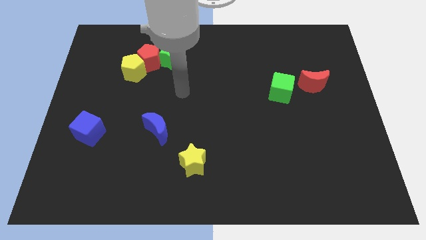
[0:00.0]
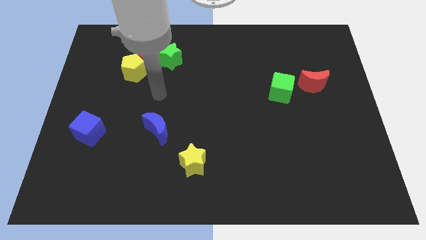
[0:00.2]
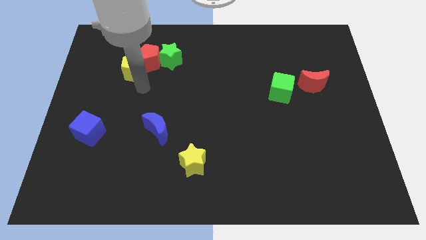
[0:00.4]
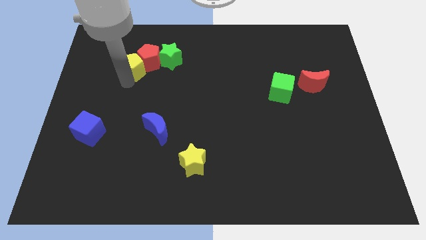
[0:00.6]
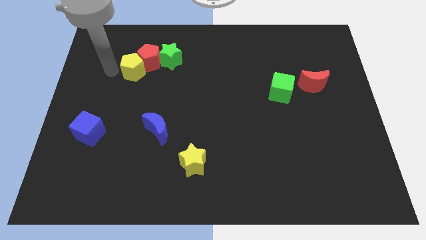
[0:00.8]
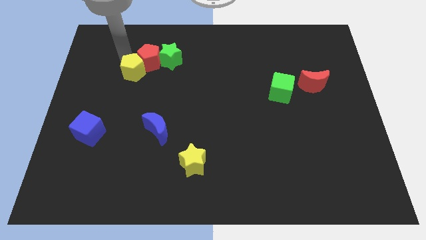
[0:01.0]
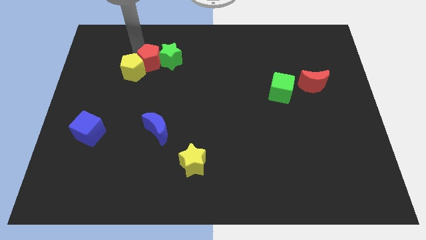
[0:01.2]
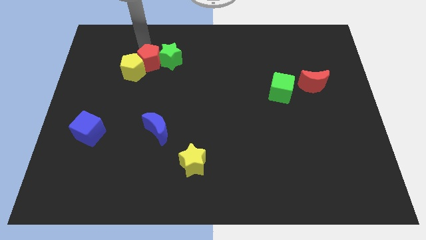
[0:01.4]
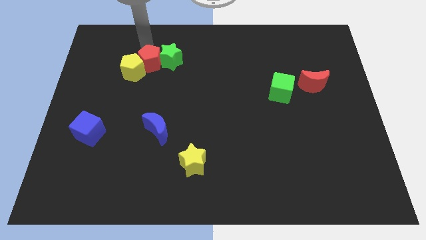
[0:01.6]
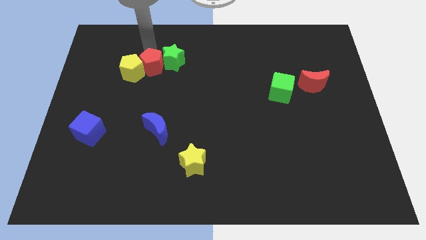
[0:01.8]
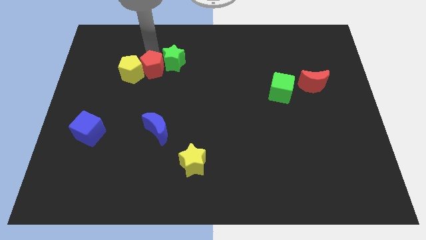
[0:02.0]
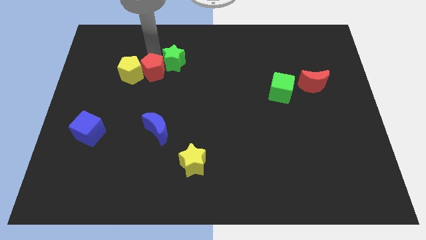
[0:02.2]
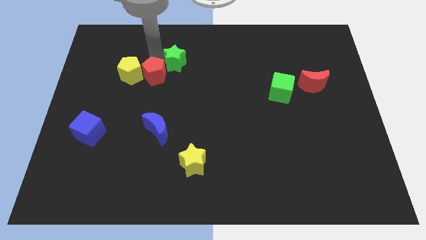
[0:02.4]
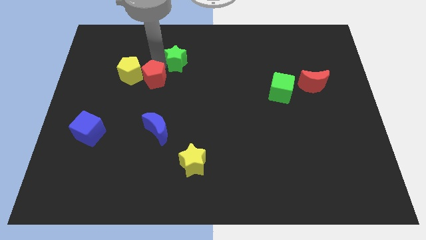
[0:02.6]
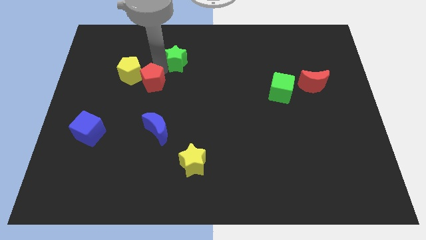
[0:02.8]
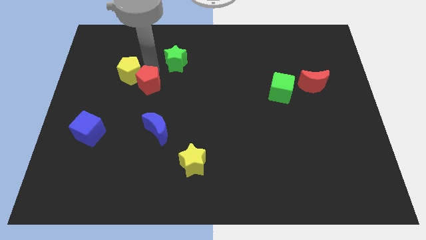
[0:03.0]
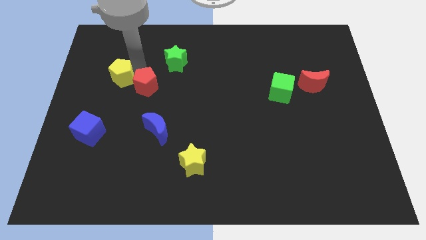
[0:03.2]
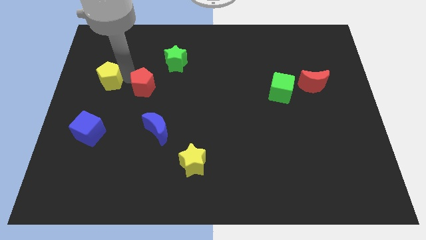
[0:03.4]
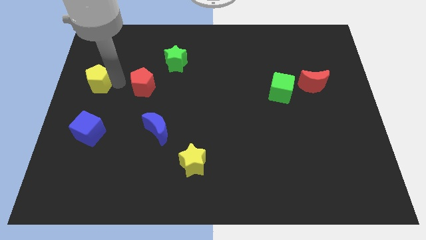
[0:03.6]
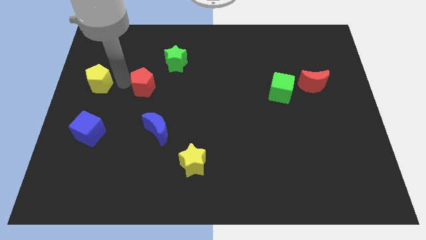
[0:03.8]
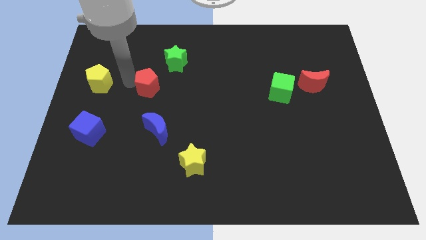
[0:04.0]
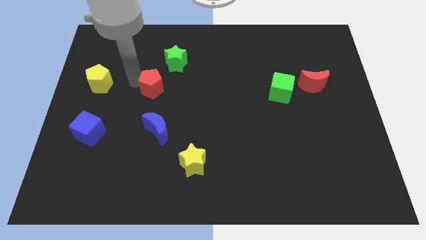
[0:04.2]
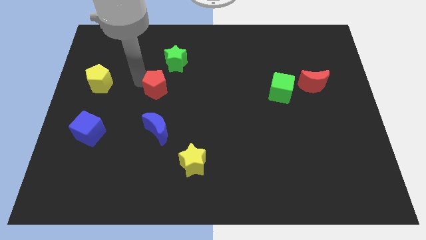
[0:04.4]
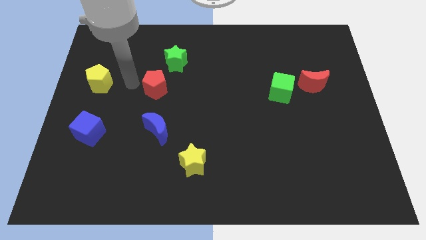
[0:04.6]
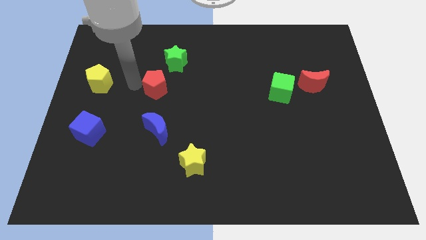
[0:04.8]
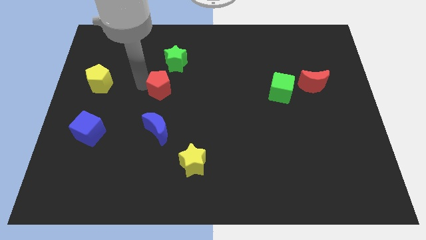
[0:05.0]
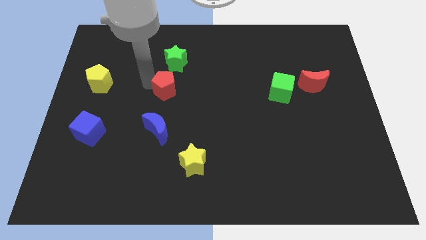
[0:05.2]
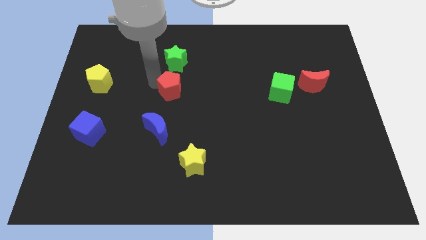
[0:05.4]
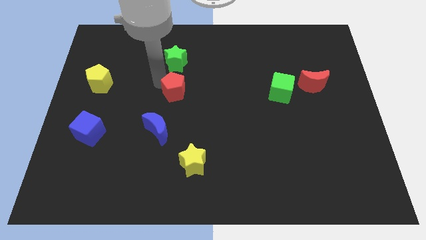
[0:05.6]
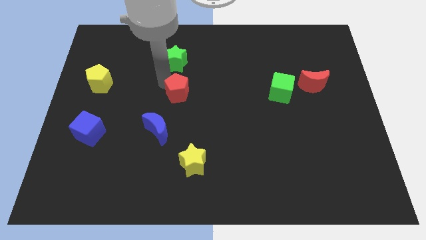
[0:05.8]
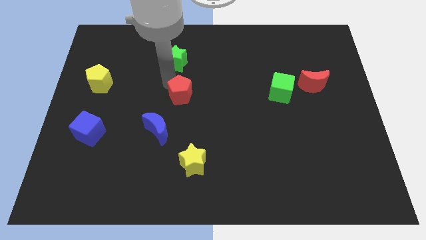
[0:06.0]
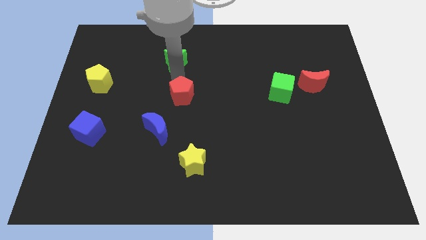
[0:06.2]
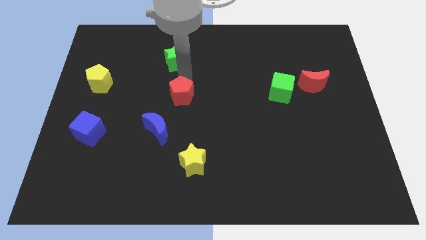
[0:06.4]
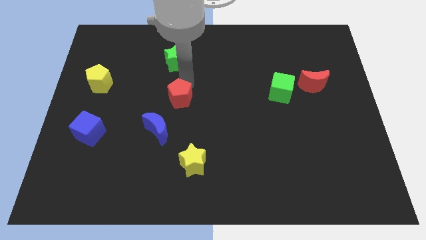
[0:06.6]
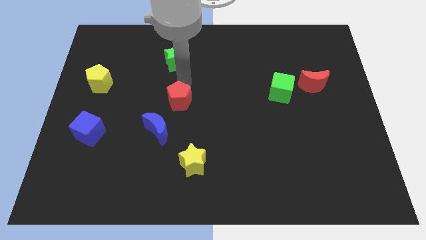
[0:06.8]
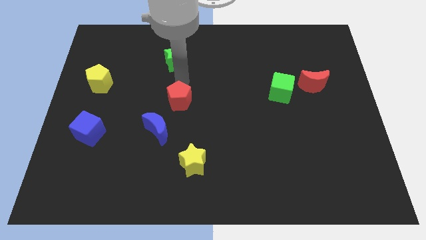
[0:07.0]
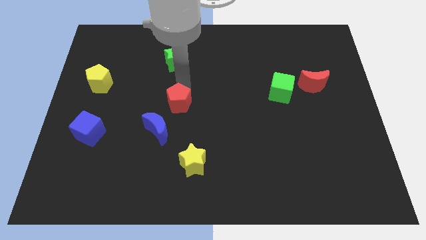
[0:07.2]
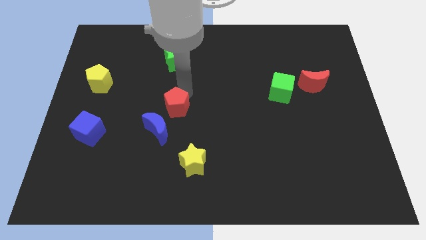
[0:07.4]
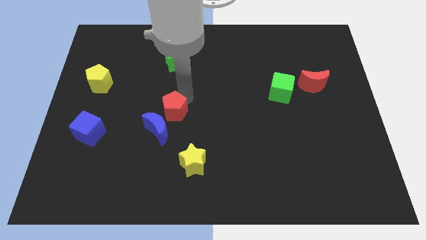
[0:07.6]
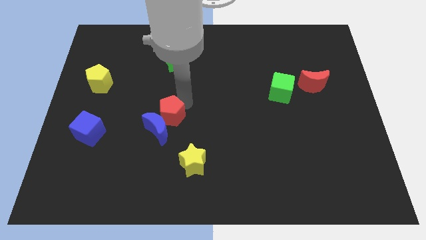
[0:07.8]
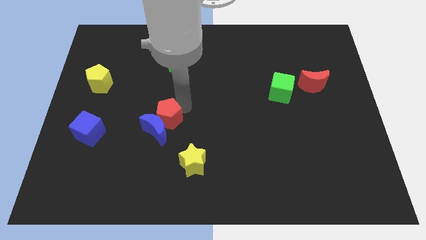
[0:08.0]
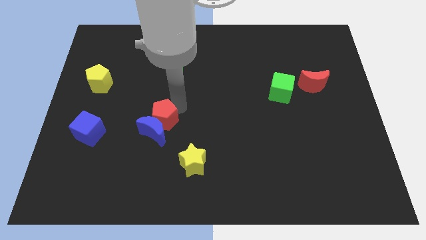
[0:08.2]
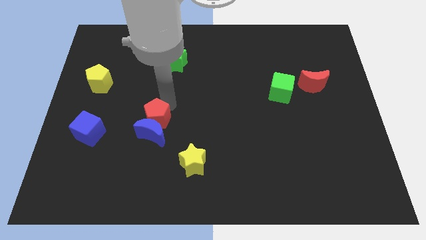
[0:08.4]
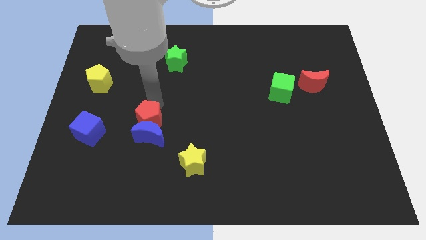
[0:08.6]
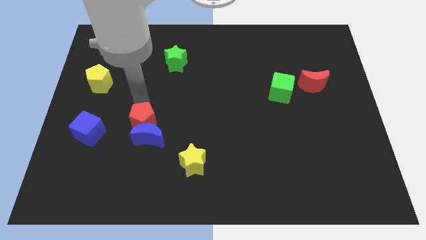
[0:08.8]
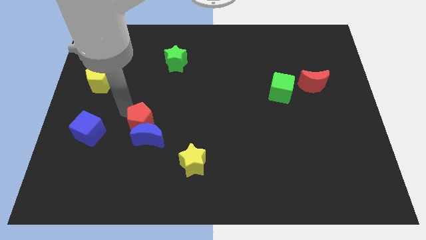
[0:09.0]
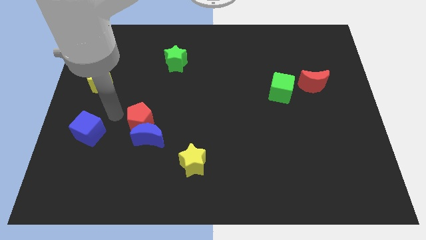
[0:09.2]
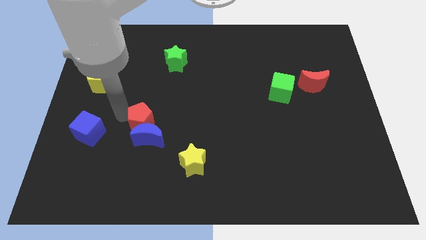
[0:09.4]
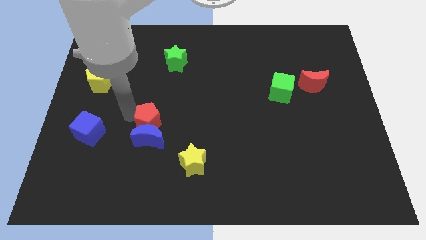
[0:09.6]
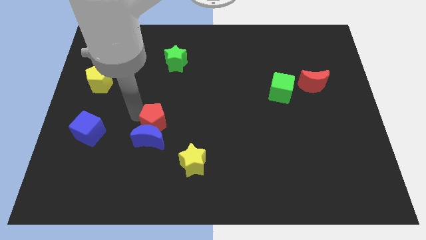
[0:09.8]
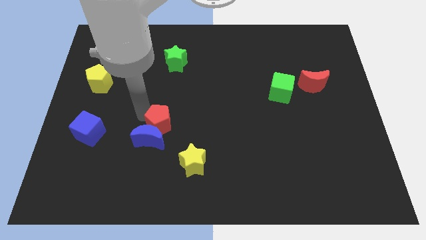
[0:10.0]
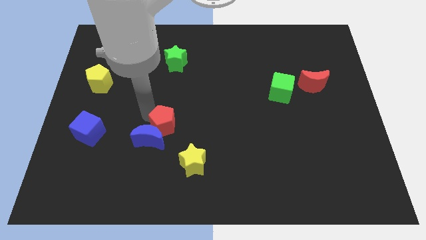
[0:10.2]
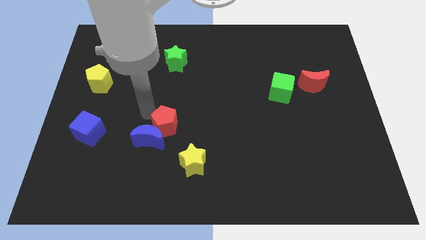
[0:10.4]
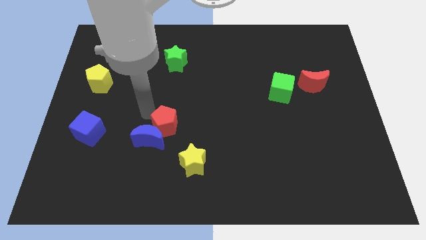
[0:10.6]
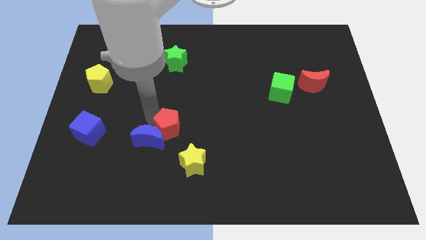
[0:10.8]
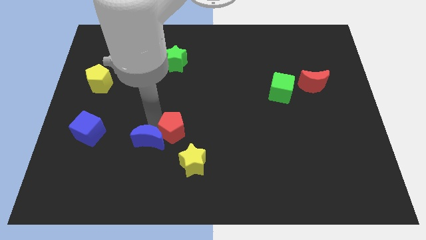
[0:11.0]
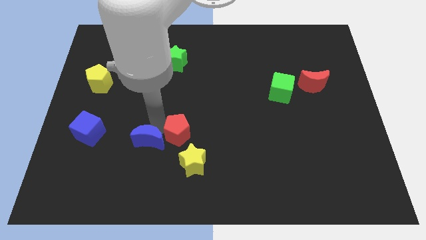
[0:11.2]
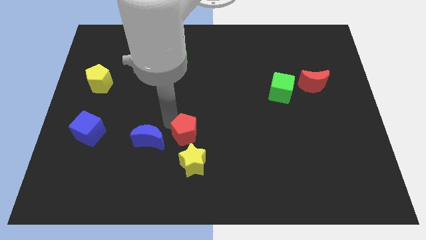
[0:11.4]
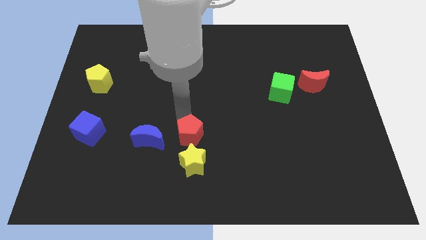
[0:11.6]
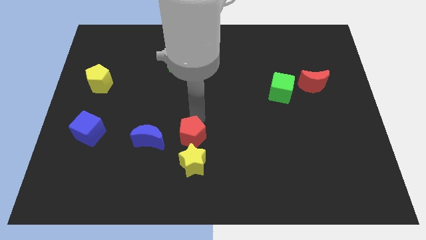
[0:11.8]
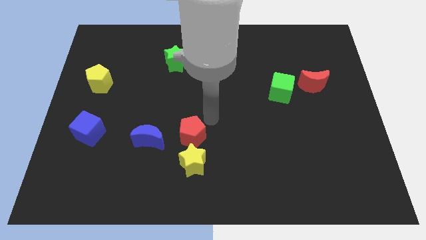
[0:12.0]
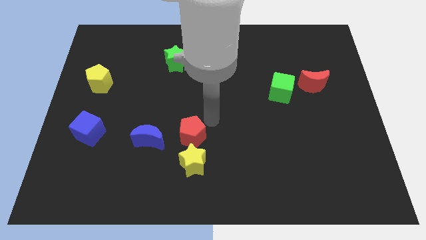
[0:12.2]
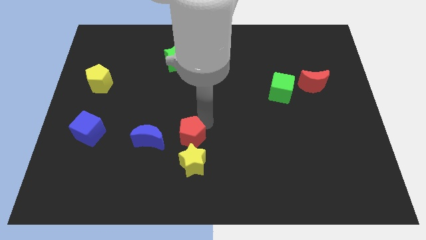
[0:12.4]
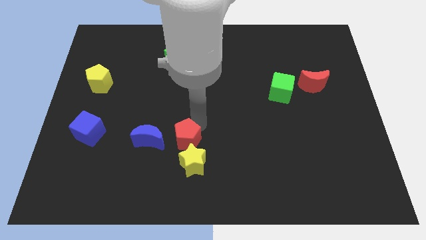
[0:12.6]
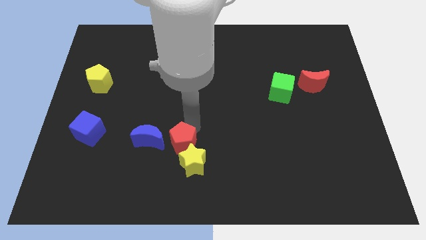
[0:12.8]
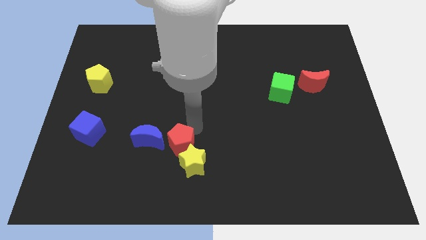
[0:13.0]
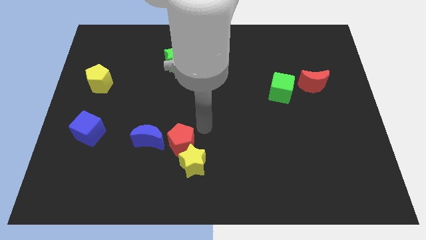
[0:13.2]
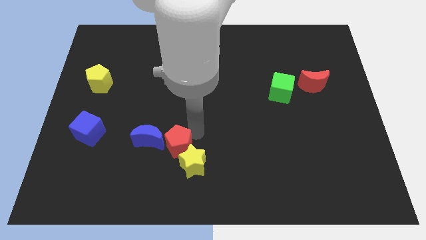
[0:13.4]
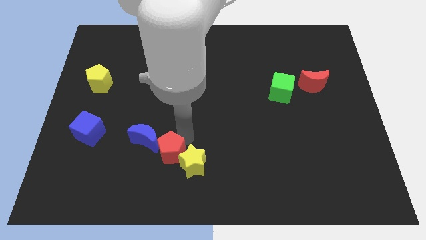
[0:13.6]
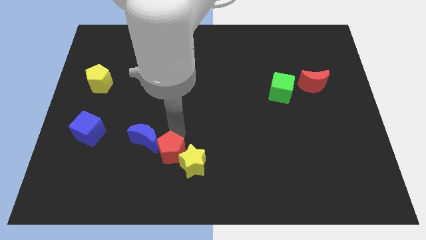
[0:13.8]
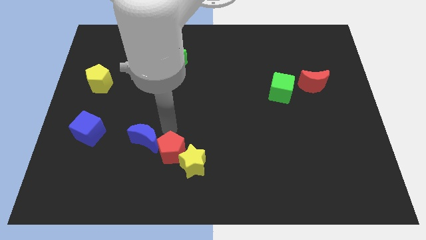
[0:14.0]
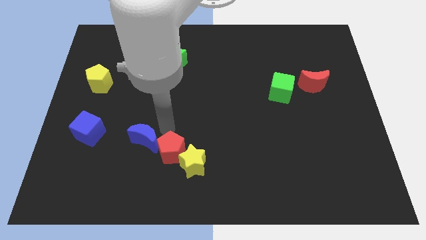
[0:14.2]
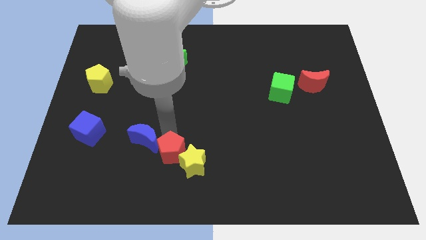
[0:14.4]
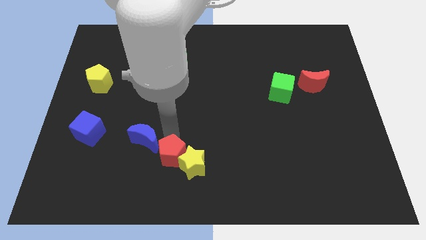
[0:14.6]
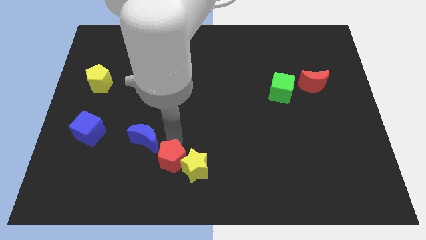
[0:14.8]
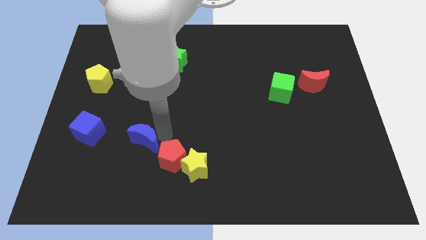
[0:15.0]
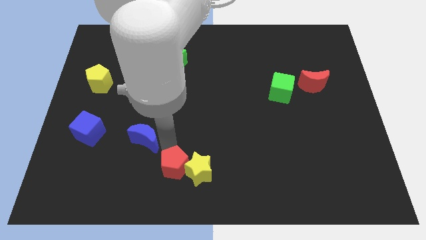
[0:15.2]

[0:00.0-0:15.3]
slide the red pentagon to the bottom
